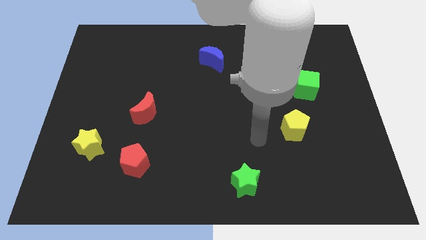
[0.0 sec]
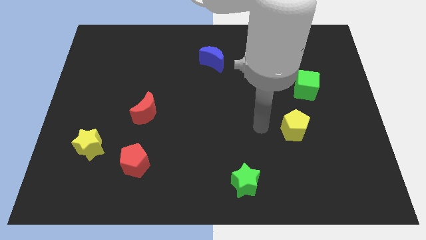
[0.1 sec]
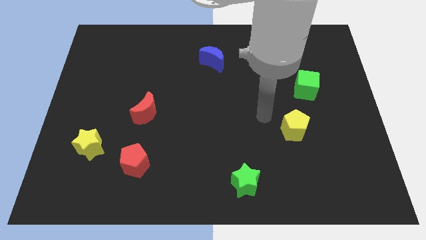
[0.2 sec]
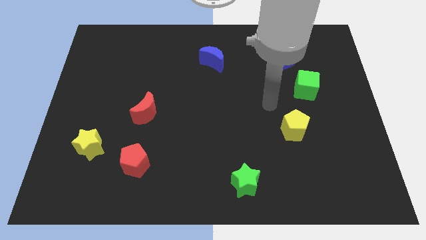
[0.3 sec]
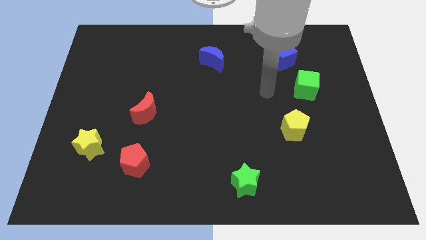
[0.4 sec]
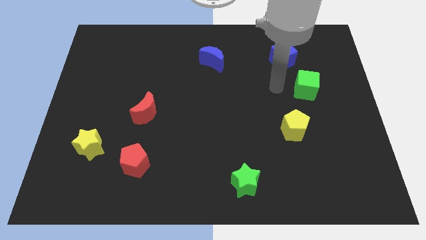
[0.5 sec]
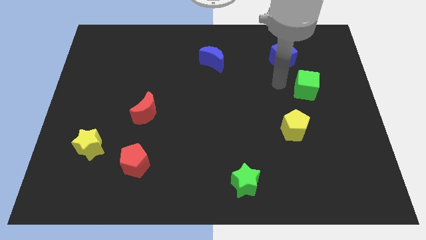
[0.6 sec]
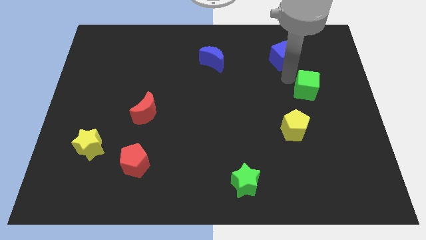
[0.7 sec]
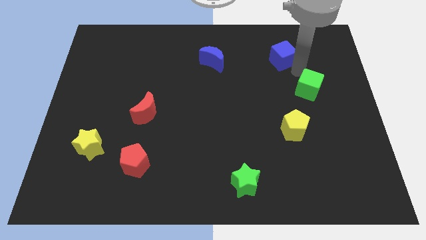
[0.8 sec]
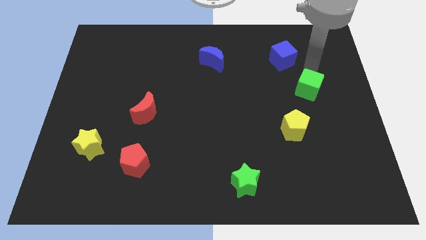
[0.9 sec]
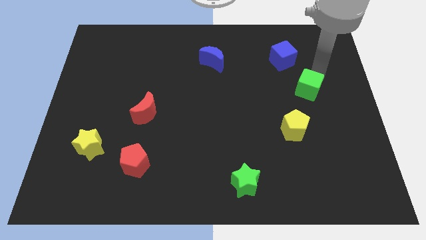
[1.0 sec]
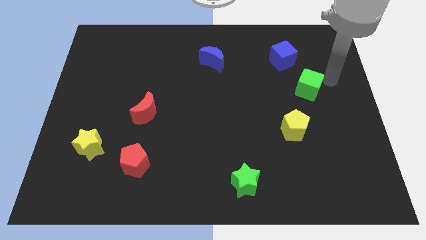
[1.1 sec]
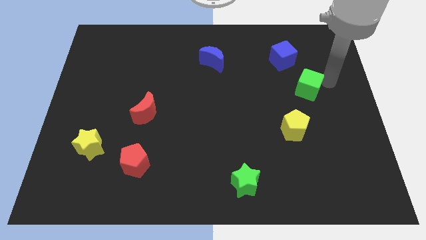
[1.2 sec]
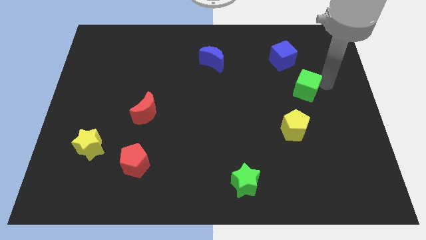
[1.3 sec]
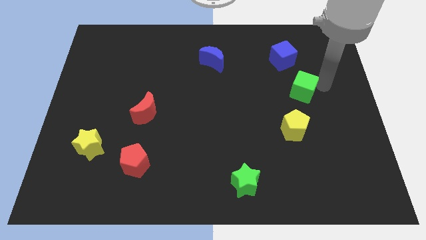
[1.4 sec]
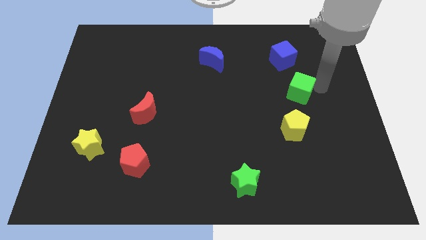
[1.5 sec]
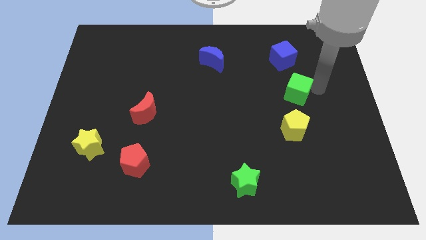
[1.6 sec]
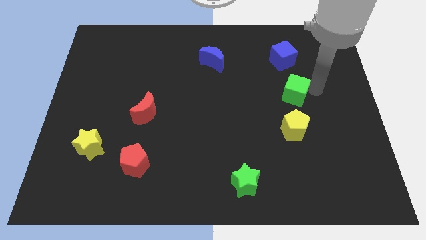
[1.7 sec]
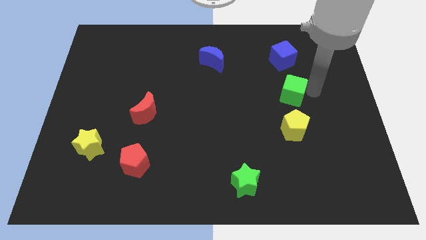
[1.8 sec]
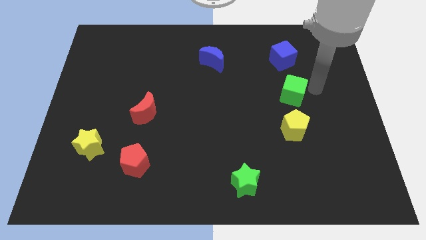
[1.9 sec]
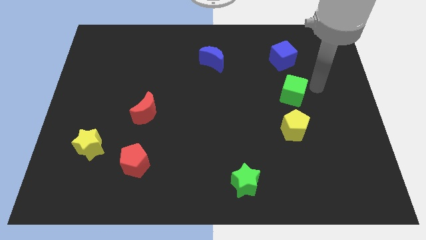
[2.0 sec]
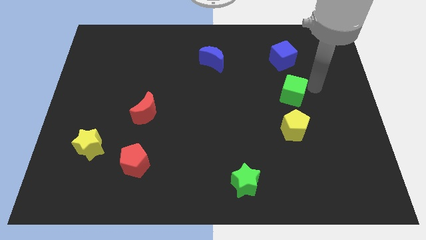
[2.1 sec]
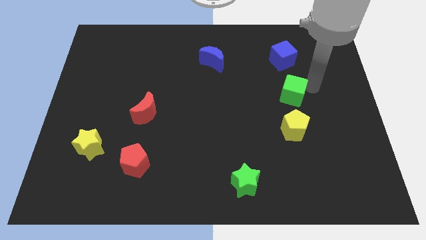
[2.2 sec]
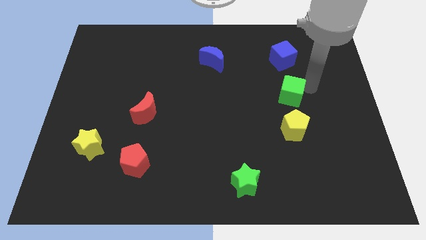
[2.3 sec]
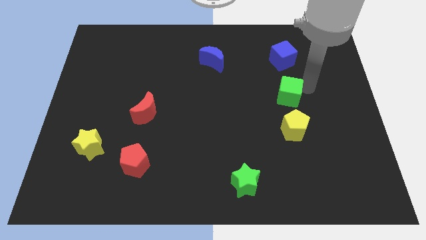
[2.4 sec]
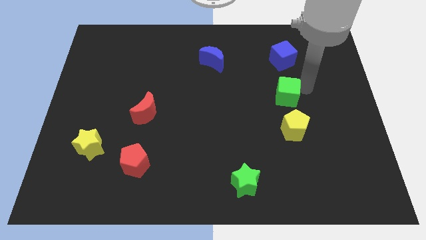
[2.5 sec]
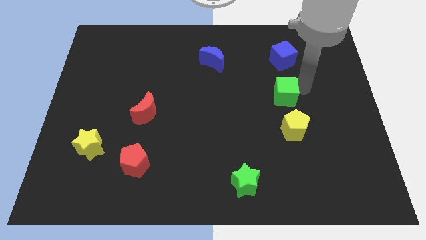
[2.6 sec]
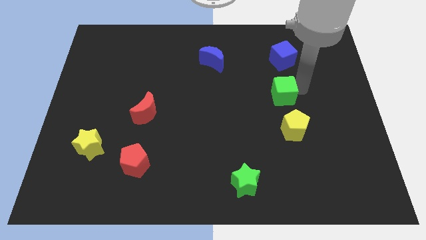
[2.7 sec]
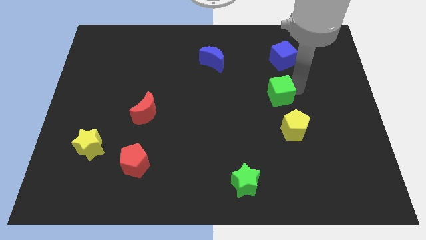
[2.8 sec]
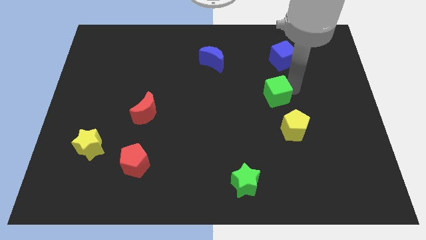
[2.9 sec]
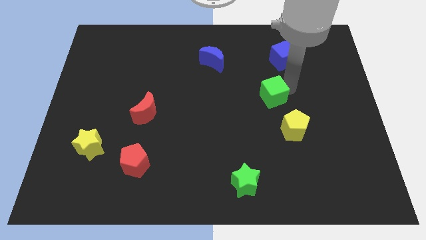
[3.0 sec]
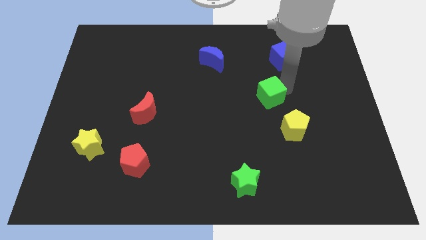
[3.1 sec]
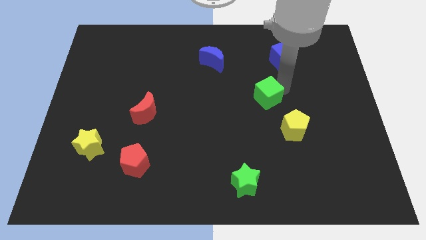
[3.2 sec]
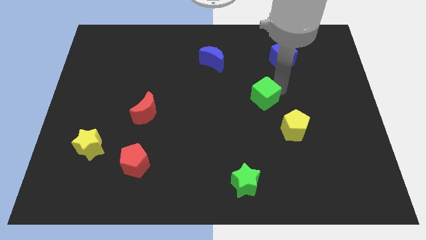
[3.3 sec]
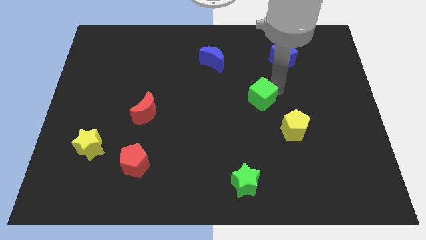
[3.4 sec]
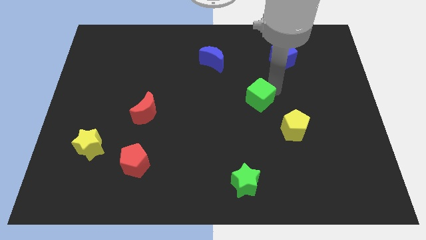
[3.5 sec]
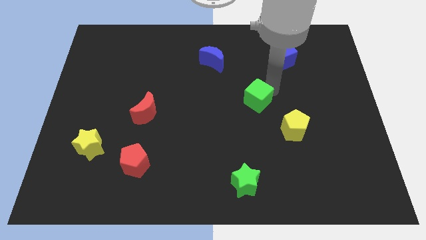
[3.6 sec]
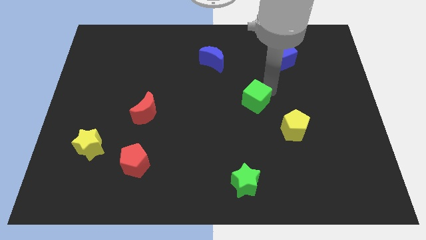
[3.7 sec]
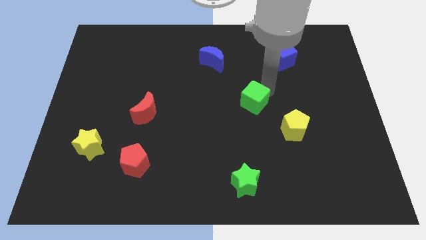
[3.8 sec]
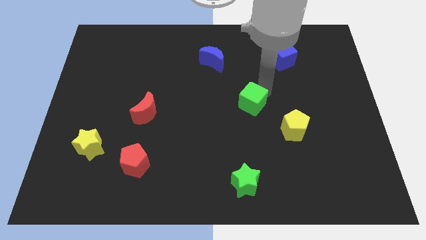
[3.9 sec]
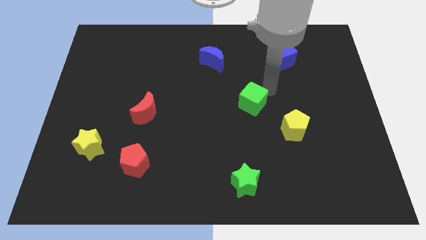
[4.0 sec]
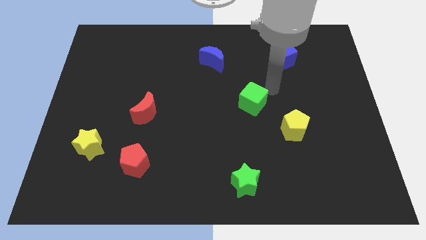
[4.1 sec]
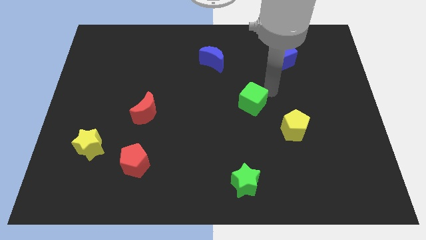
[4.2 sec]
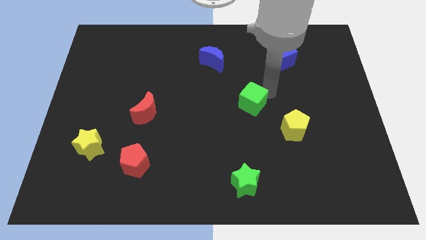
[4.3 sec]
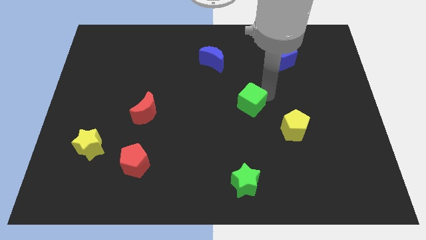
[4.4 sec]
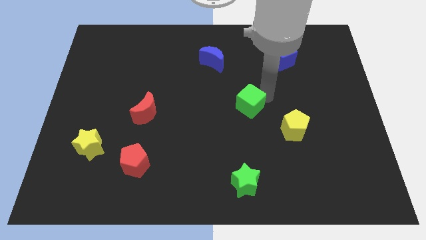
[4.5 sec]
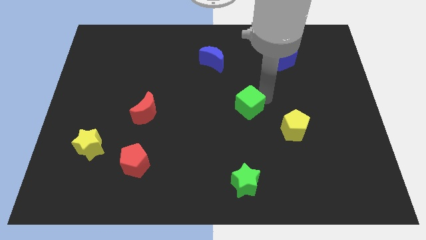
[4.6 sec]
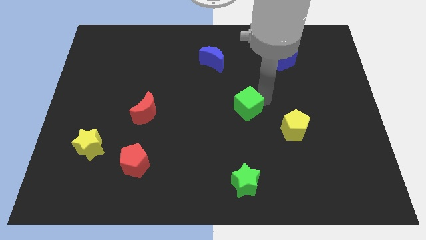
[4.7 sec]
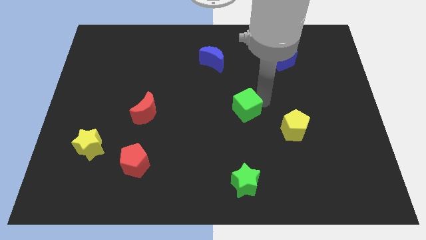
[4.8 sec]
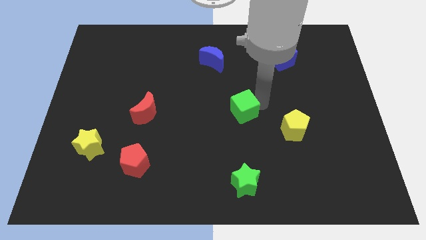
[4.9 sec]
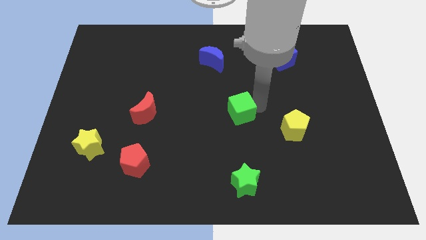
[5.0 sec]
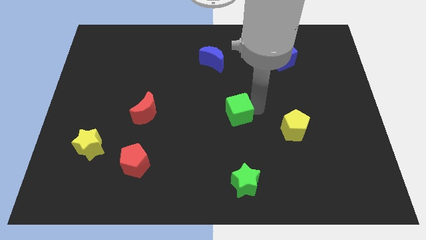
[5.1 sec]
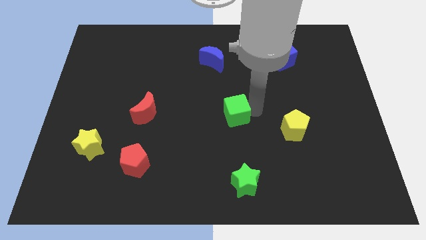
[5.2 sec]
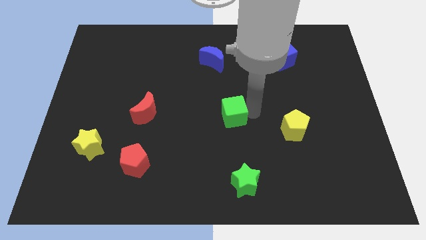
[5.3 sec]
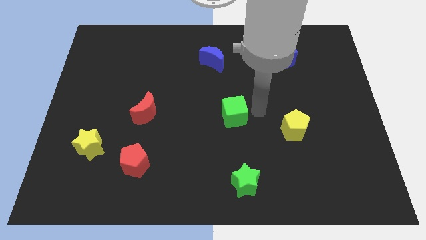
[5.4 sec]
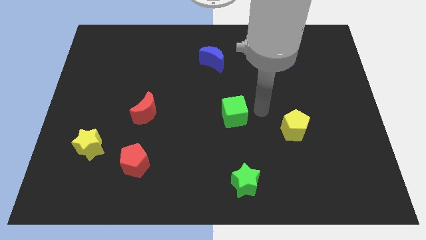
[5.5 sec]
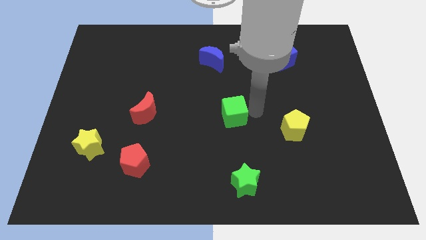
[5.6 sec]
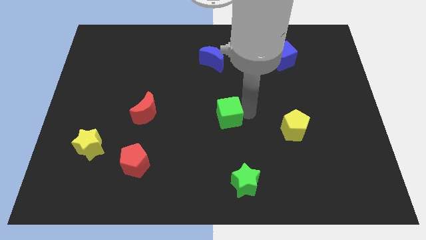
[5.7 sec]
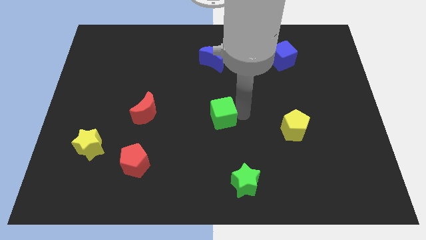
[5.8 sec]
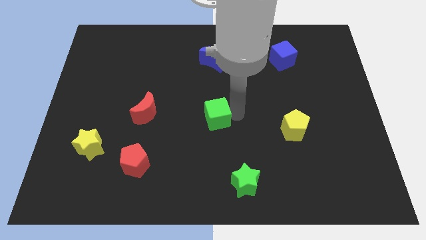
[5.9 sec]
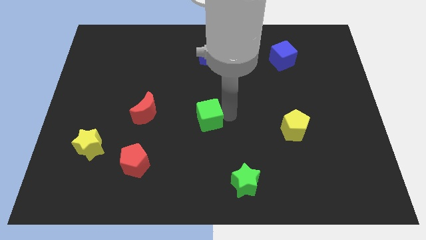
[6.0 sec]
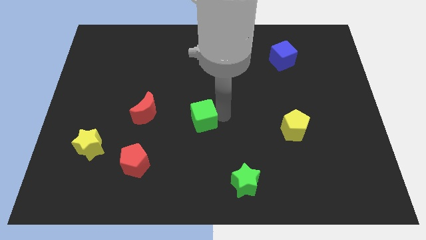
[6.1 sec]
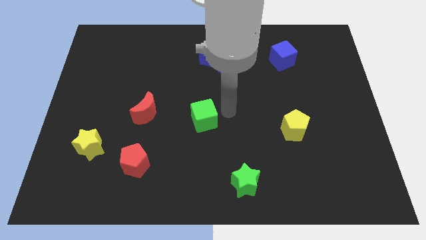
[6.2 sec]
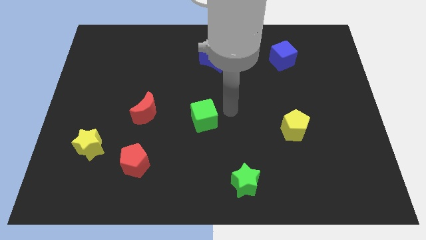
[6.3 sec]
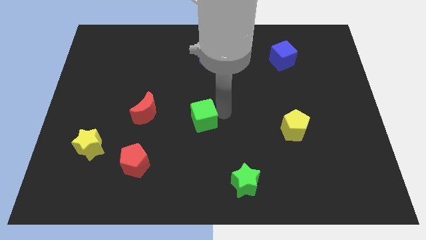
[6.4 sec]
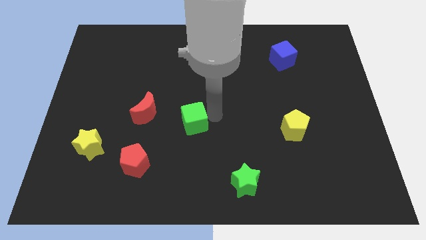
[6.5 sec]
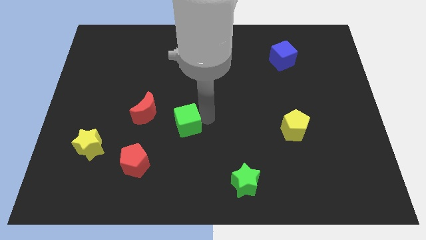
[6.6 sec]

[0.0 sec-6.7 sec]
push the green cube to the bottom right side of the red moon
